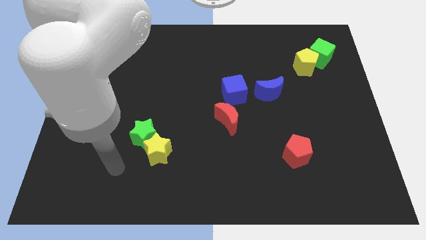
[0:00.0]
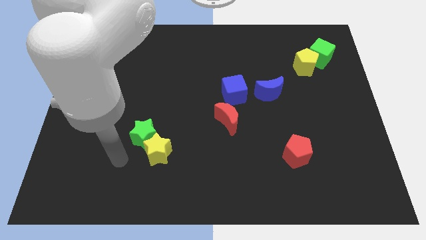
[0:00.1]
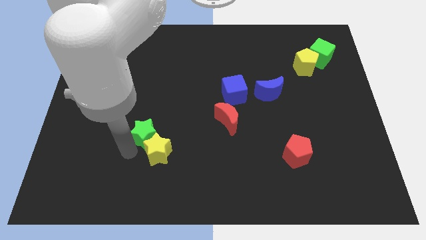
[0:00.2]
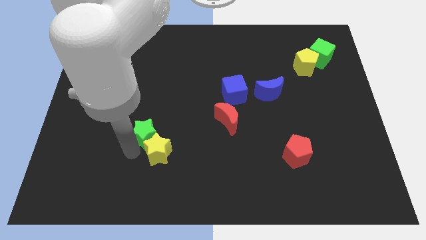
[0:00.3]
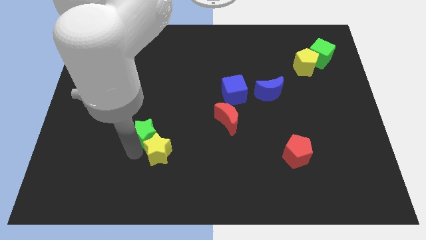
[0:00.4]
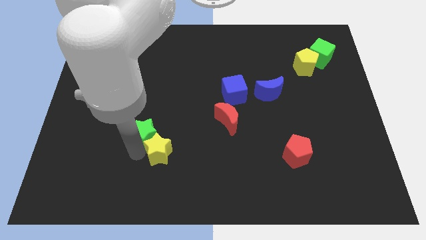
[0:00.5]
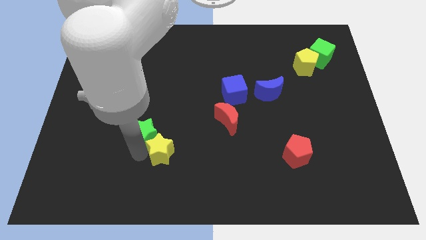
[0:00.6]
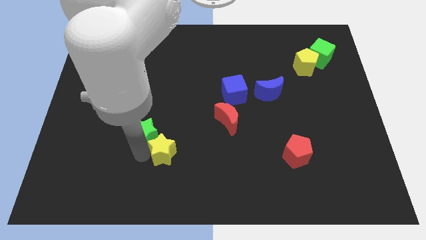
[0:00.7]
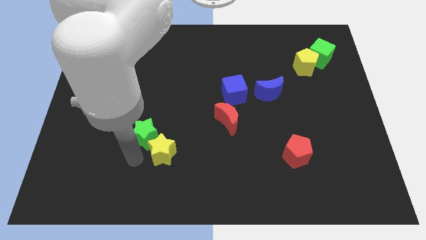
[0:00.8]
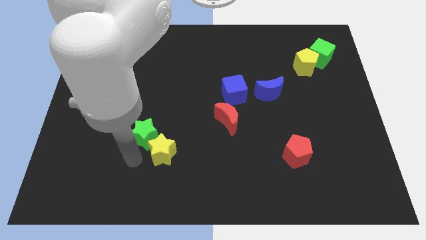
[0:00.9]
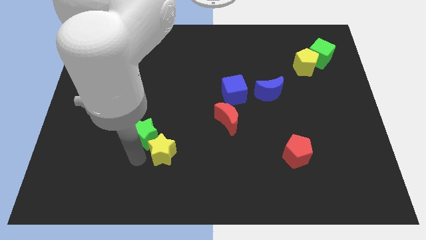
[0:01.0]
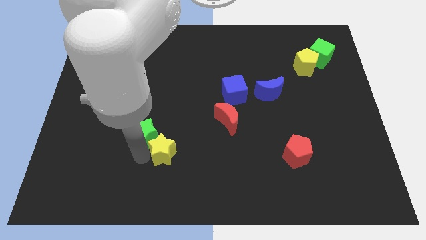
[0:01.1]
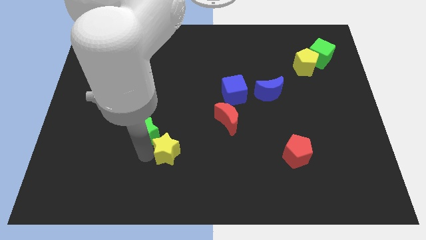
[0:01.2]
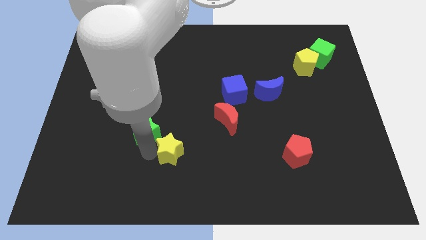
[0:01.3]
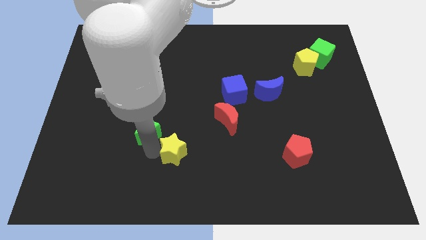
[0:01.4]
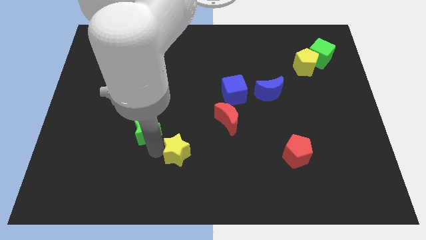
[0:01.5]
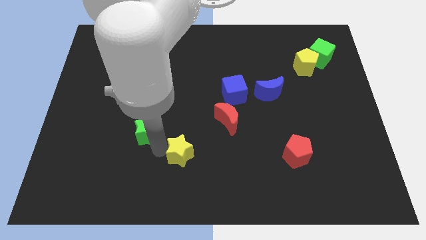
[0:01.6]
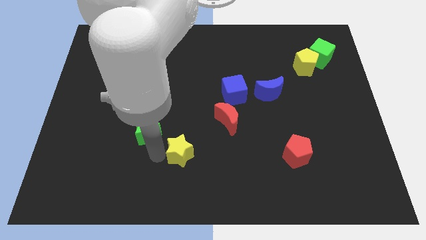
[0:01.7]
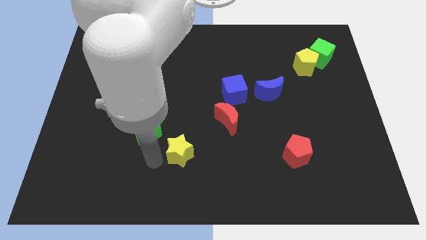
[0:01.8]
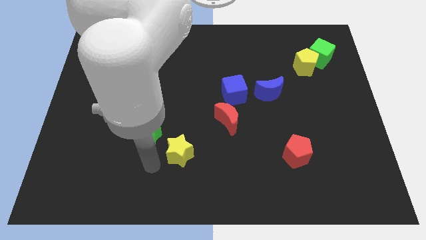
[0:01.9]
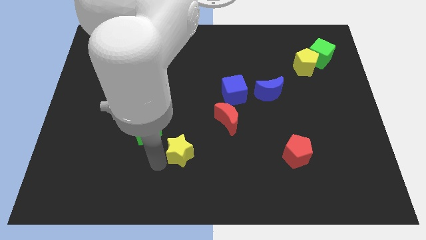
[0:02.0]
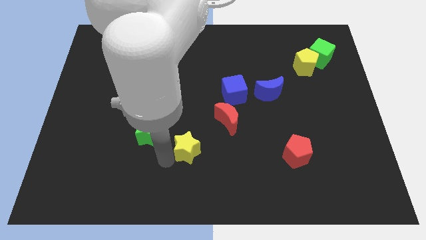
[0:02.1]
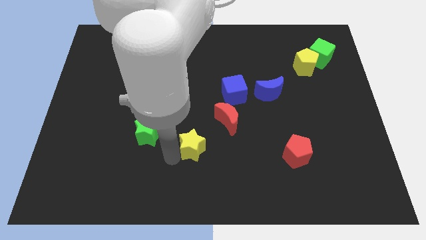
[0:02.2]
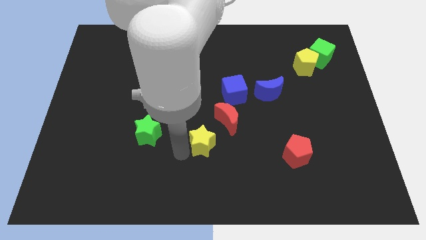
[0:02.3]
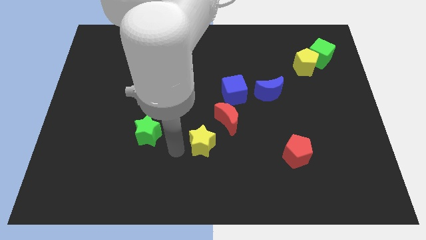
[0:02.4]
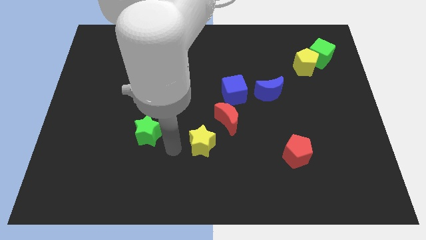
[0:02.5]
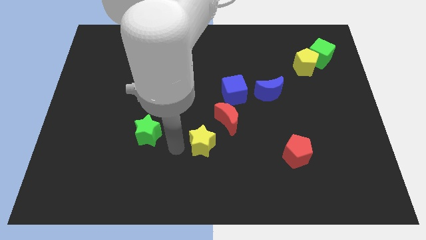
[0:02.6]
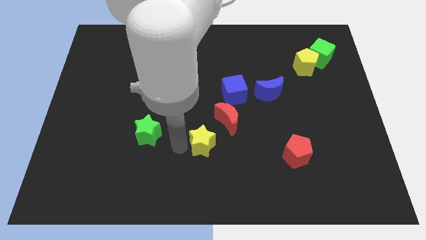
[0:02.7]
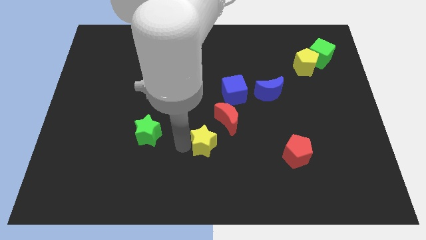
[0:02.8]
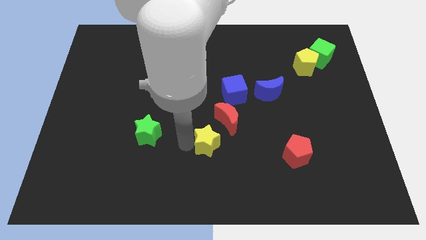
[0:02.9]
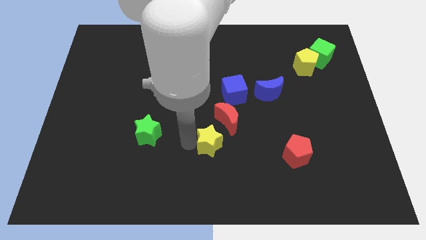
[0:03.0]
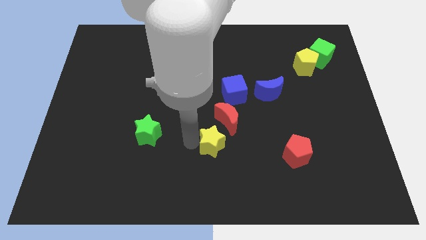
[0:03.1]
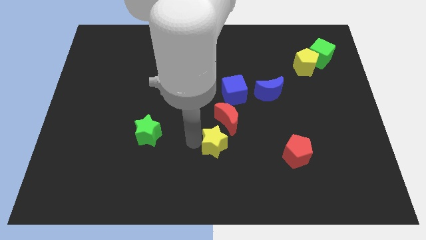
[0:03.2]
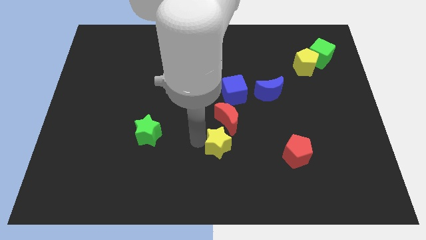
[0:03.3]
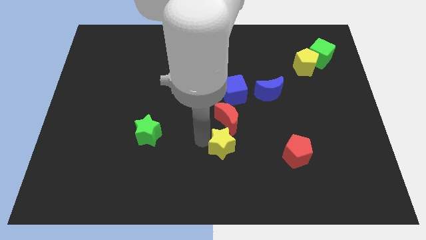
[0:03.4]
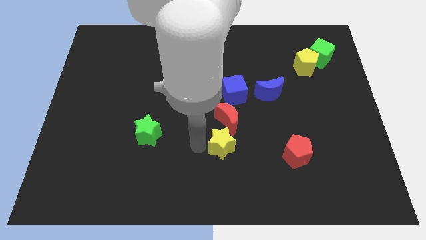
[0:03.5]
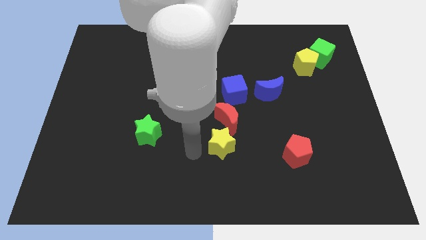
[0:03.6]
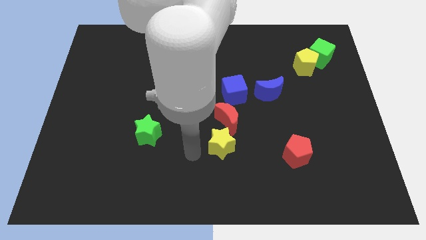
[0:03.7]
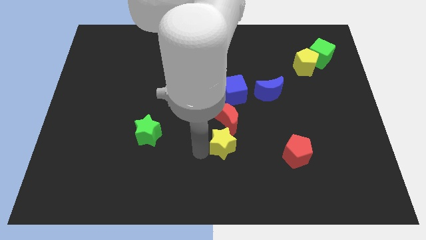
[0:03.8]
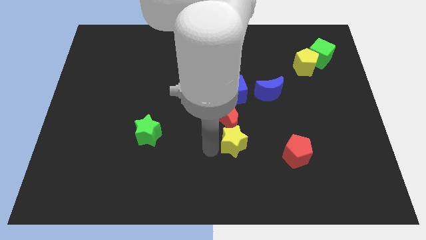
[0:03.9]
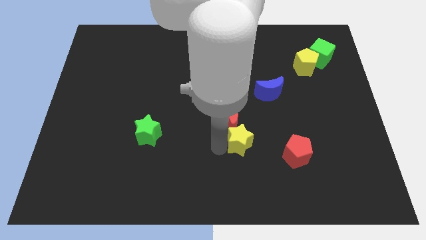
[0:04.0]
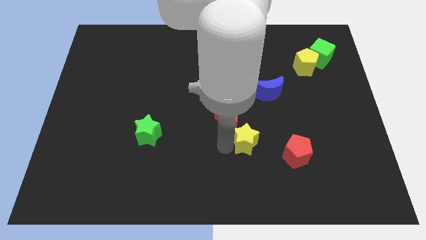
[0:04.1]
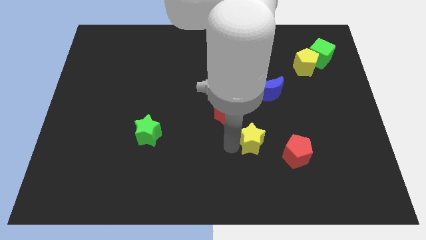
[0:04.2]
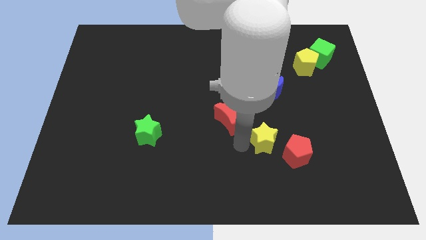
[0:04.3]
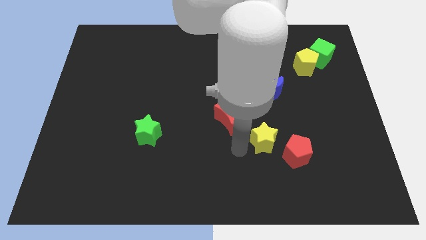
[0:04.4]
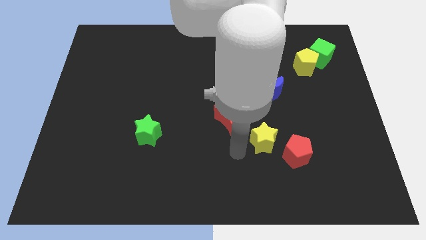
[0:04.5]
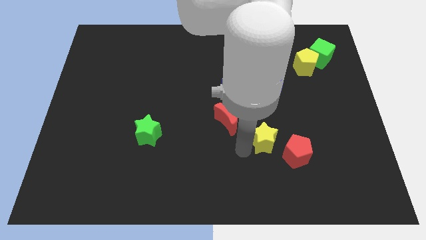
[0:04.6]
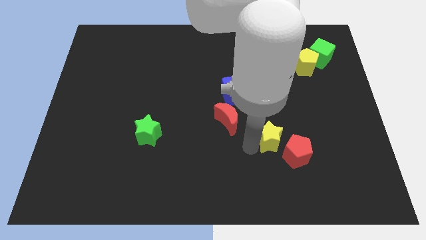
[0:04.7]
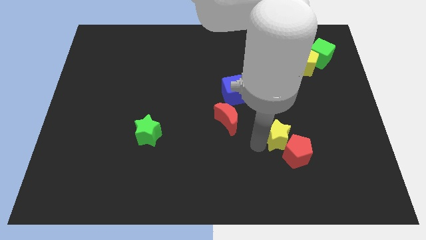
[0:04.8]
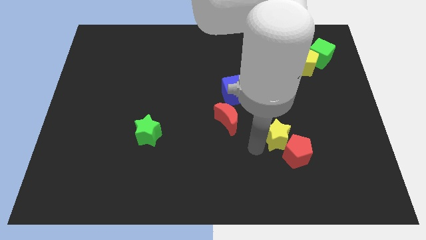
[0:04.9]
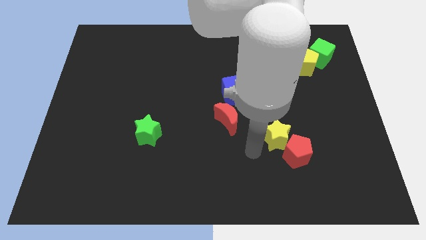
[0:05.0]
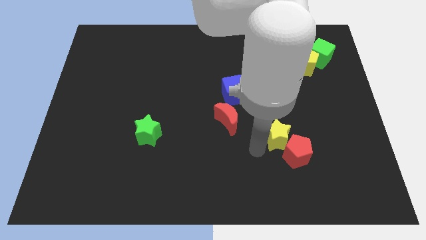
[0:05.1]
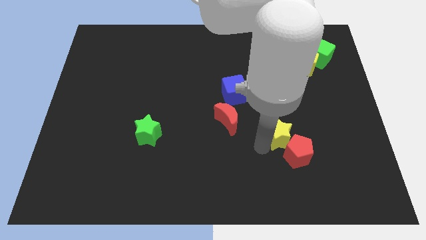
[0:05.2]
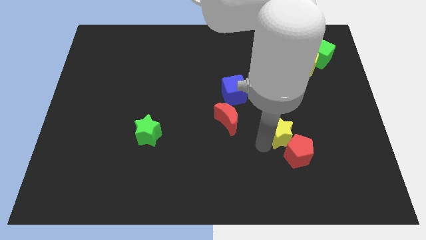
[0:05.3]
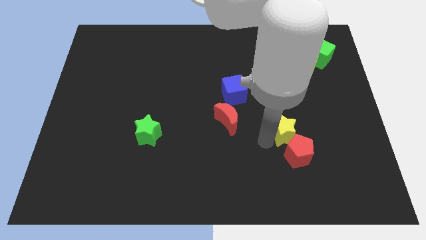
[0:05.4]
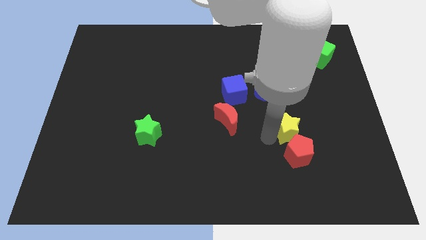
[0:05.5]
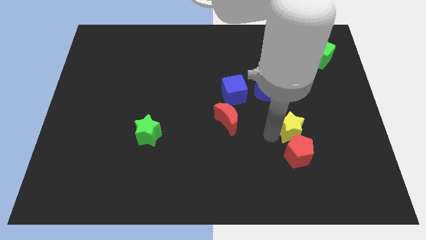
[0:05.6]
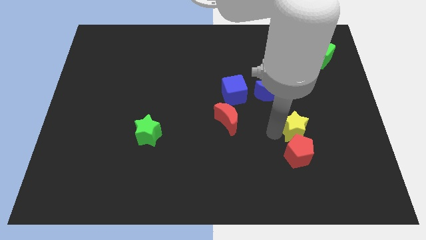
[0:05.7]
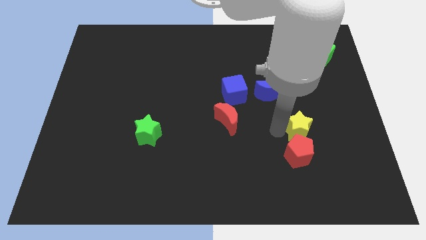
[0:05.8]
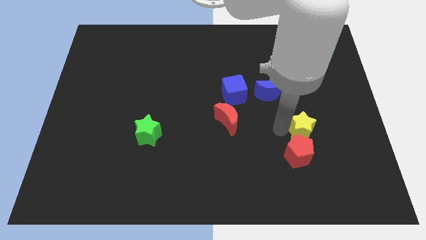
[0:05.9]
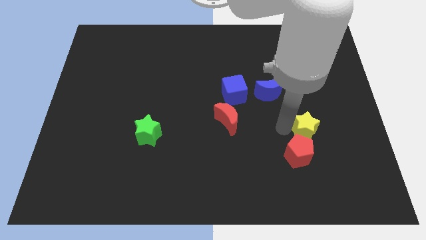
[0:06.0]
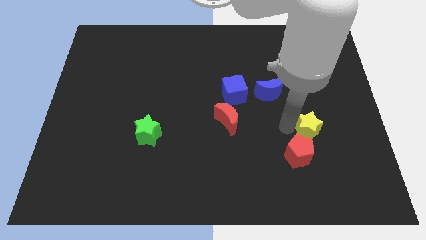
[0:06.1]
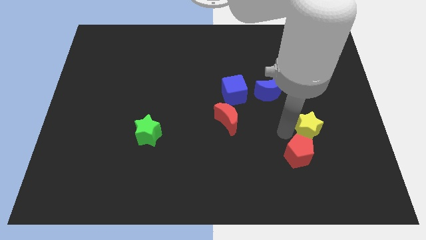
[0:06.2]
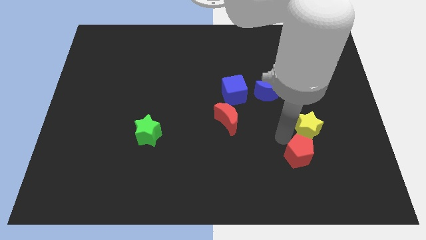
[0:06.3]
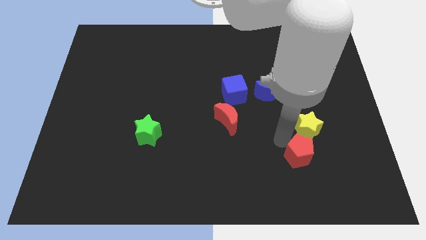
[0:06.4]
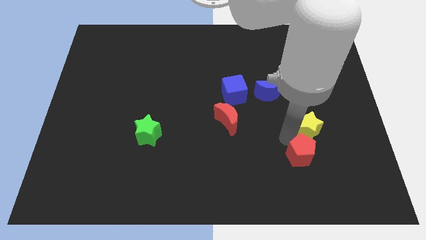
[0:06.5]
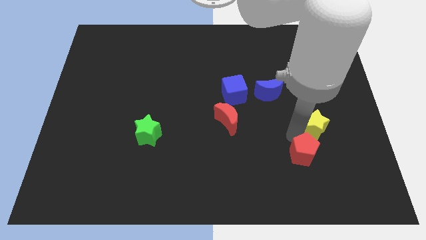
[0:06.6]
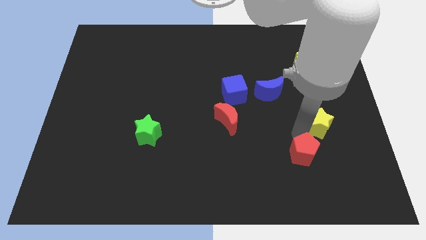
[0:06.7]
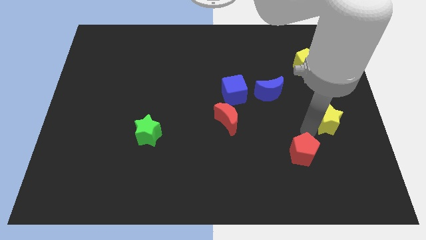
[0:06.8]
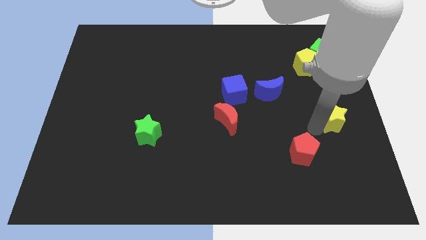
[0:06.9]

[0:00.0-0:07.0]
put the yellow star to the right side of the board
